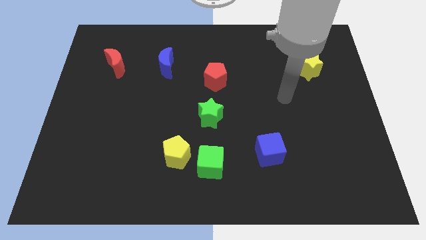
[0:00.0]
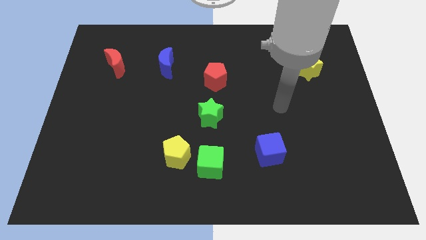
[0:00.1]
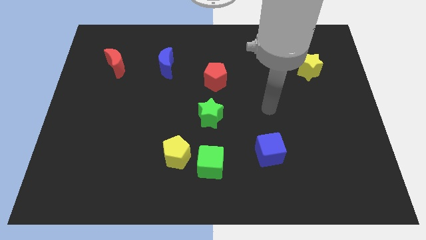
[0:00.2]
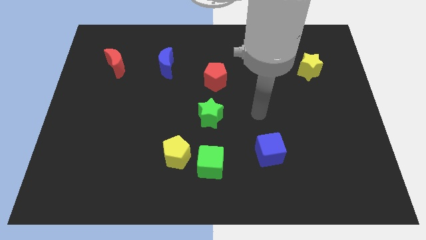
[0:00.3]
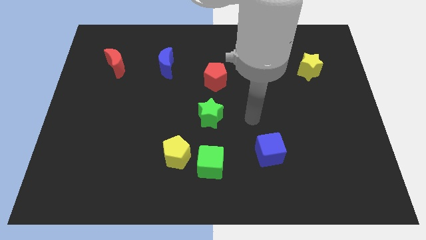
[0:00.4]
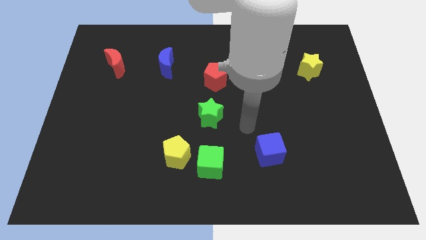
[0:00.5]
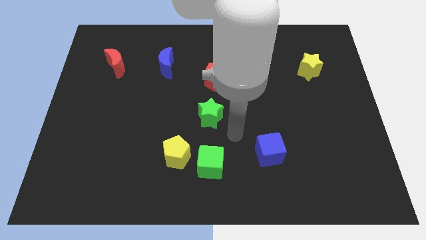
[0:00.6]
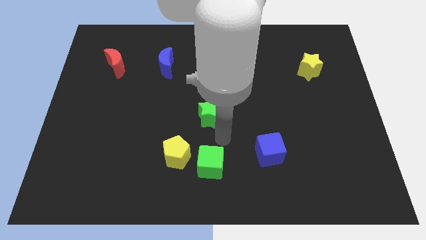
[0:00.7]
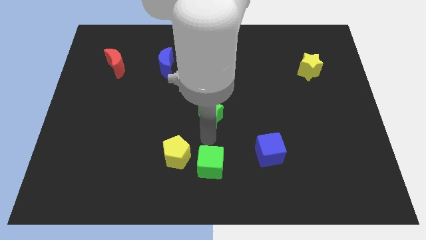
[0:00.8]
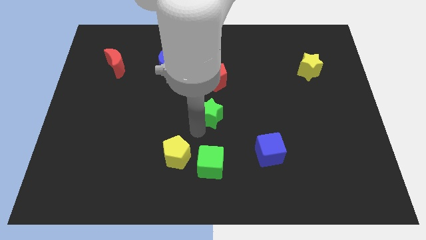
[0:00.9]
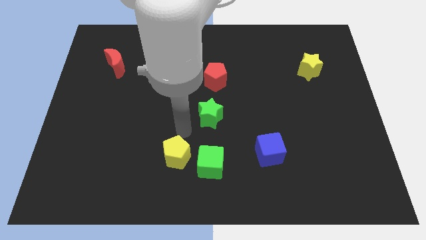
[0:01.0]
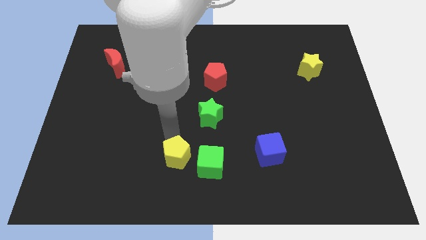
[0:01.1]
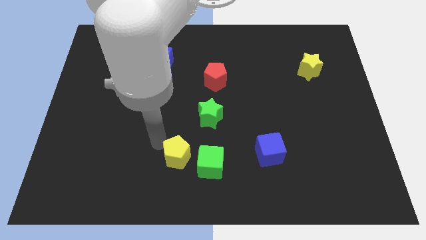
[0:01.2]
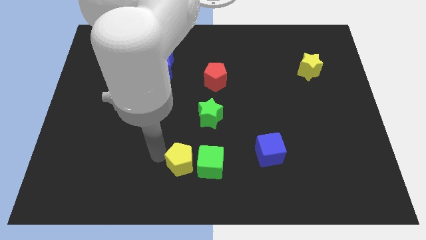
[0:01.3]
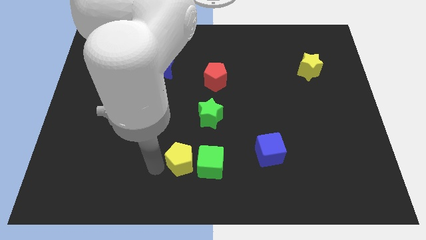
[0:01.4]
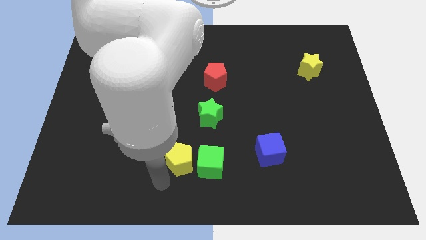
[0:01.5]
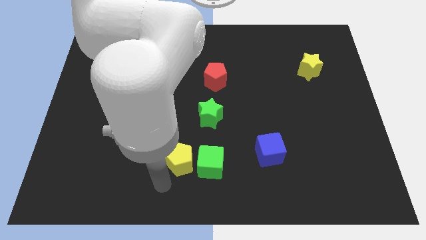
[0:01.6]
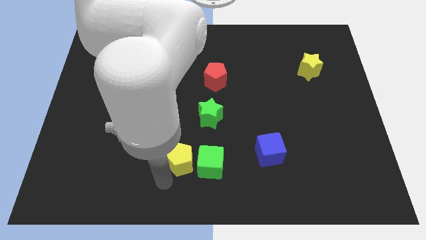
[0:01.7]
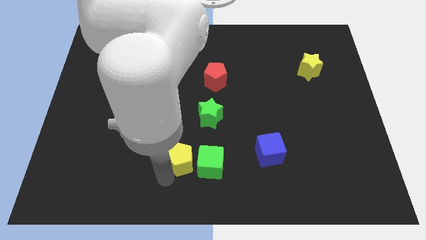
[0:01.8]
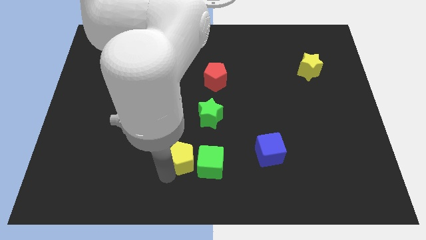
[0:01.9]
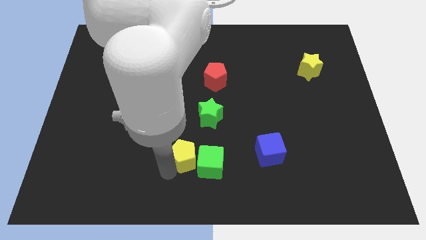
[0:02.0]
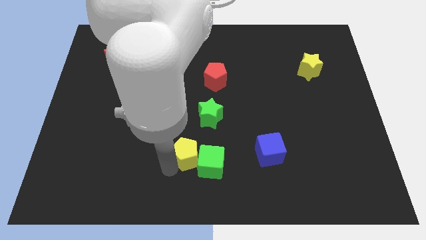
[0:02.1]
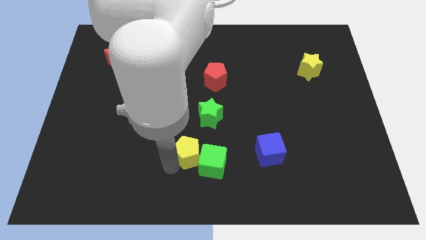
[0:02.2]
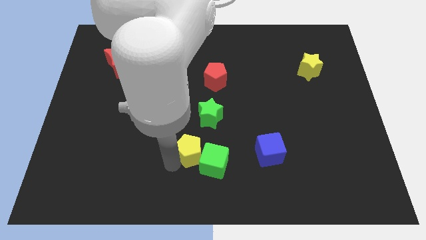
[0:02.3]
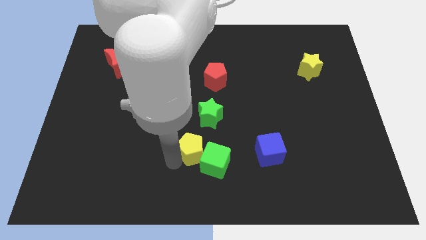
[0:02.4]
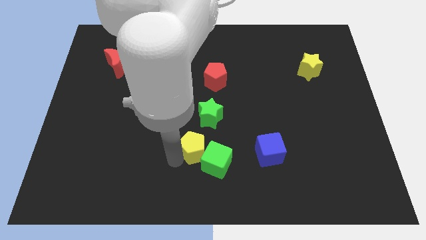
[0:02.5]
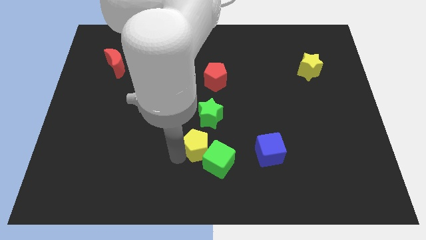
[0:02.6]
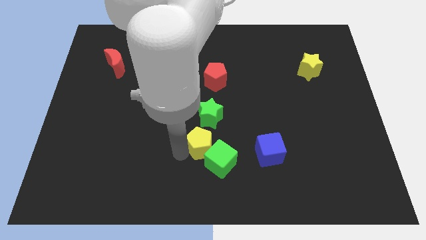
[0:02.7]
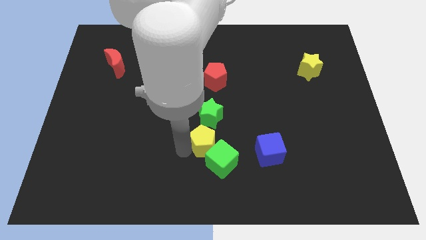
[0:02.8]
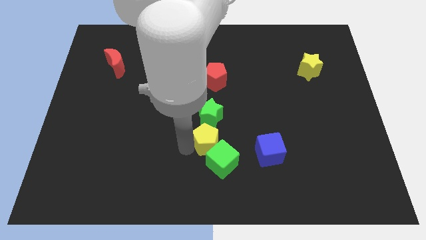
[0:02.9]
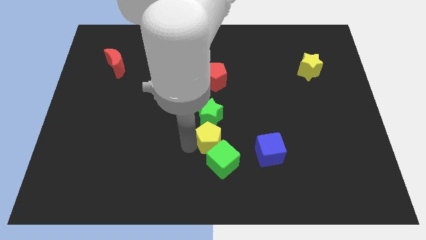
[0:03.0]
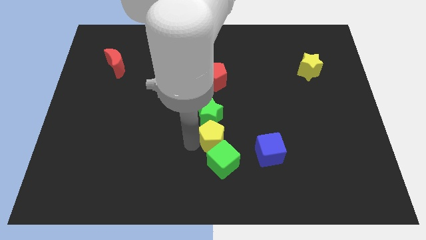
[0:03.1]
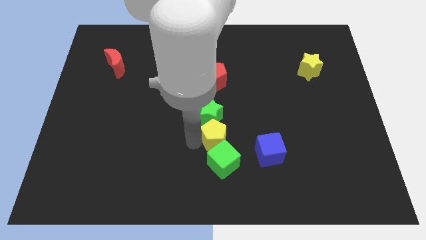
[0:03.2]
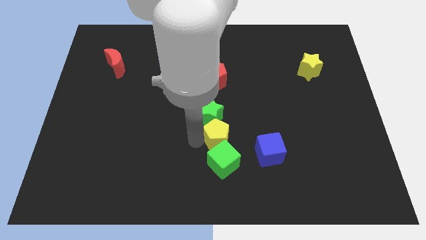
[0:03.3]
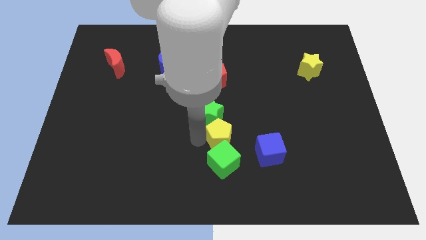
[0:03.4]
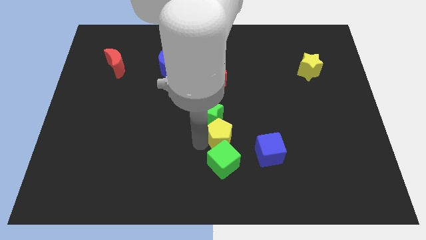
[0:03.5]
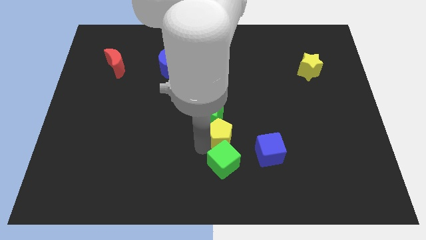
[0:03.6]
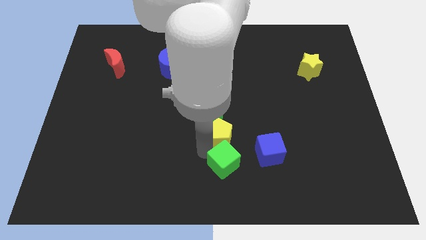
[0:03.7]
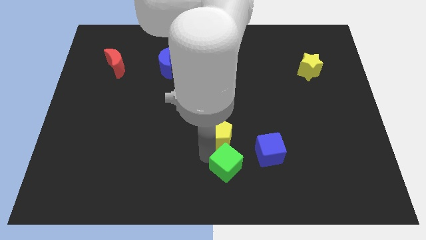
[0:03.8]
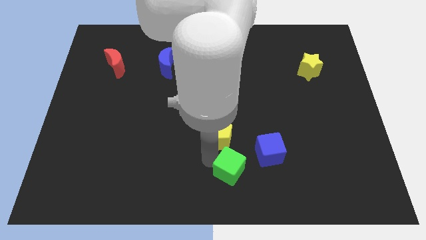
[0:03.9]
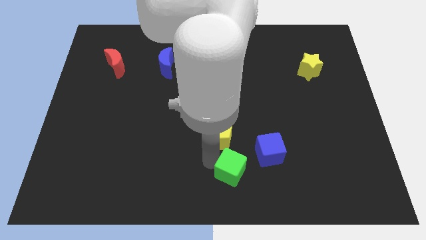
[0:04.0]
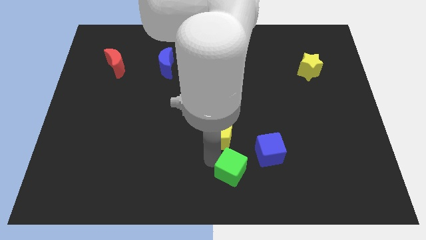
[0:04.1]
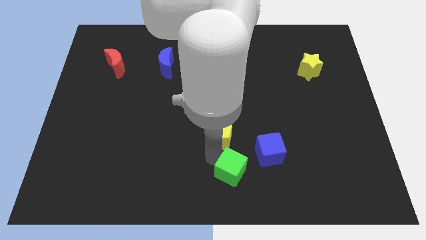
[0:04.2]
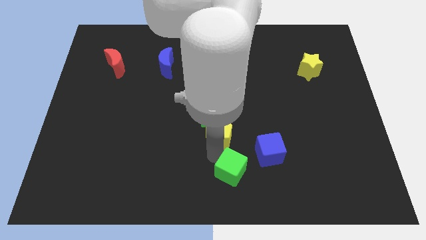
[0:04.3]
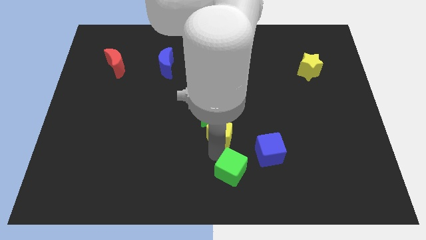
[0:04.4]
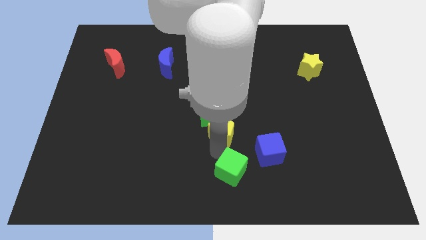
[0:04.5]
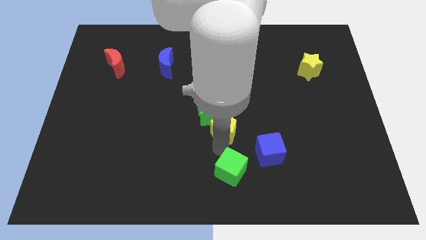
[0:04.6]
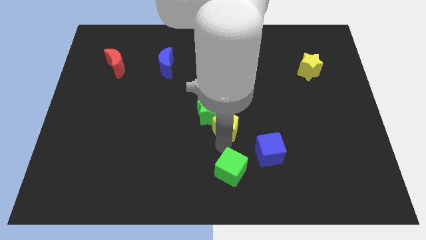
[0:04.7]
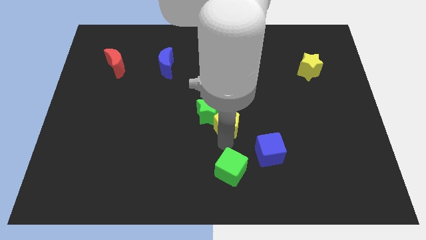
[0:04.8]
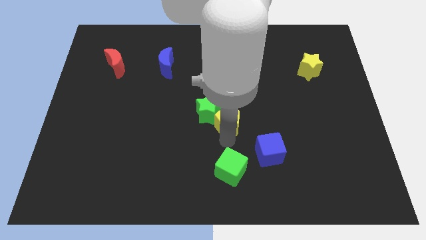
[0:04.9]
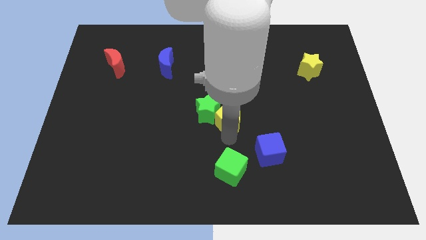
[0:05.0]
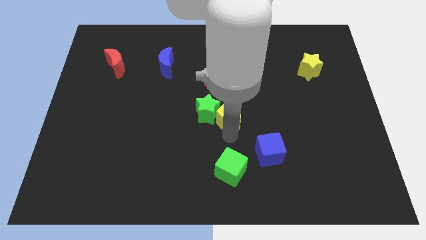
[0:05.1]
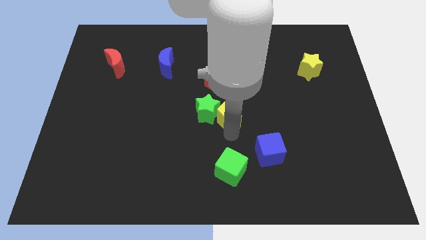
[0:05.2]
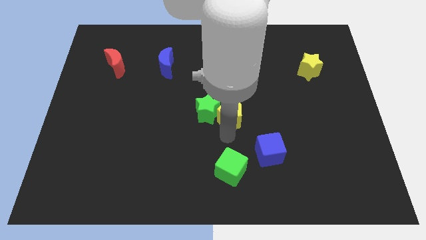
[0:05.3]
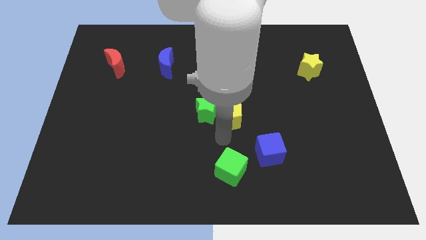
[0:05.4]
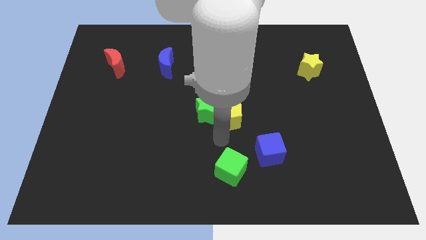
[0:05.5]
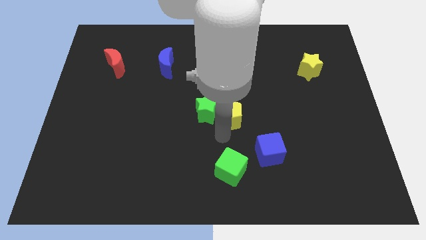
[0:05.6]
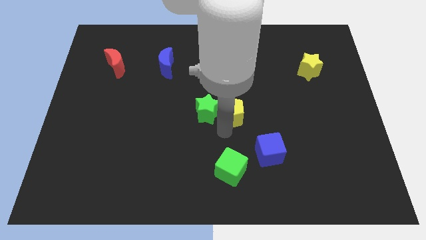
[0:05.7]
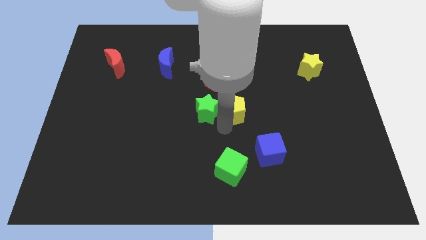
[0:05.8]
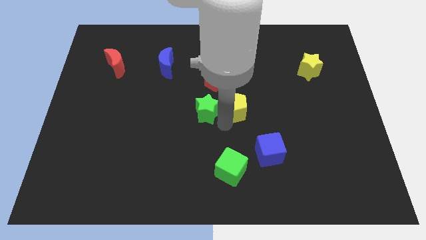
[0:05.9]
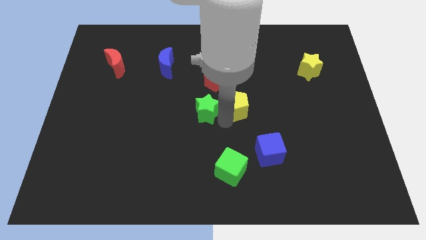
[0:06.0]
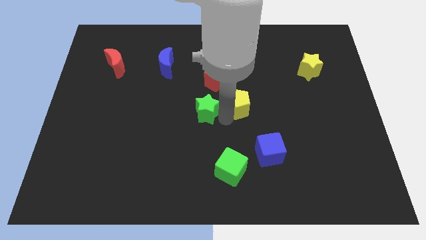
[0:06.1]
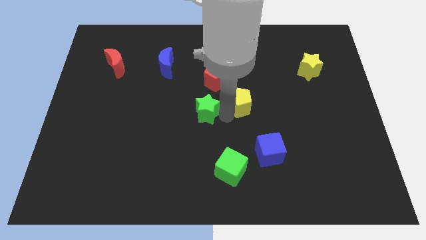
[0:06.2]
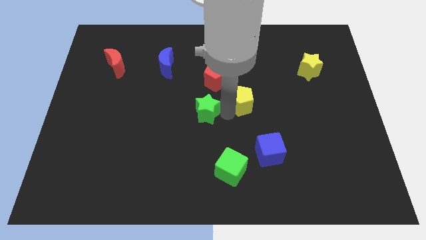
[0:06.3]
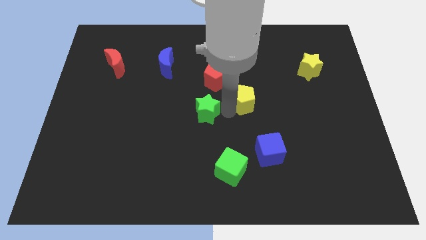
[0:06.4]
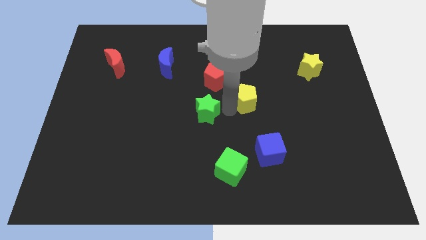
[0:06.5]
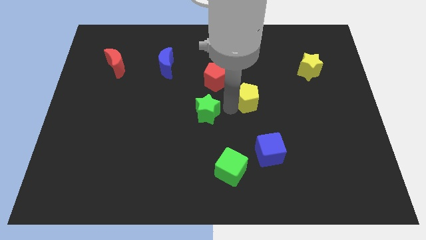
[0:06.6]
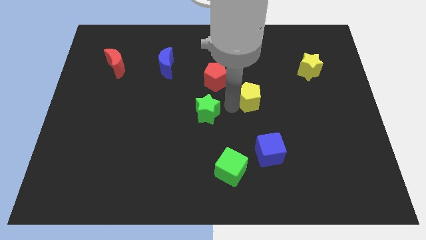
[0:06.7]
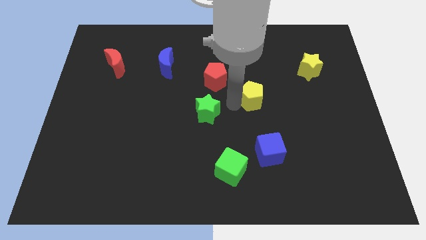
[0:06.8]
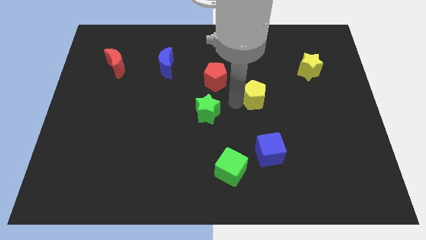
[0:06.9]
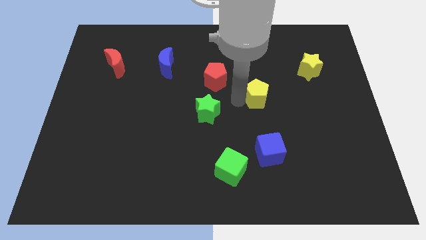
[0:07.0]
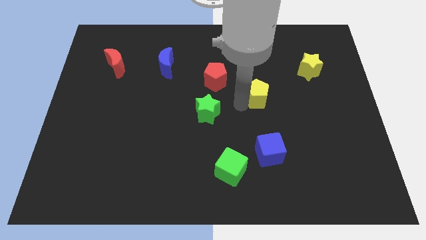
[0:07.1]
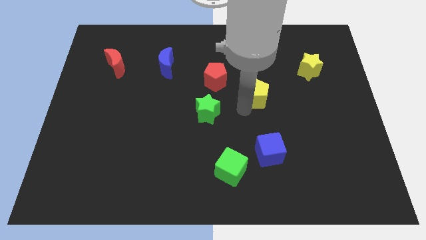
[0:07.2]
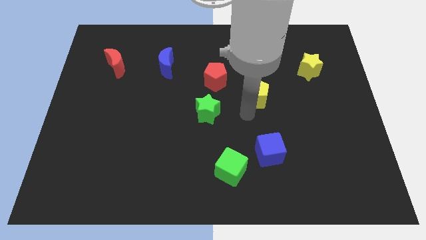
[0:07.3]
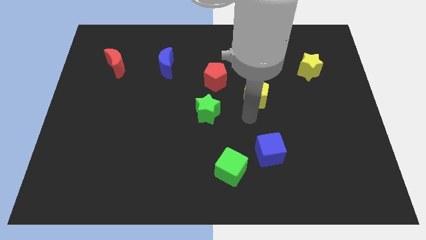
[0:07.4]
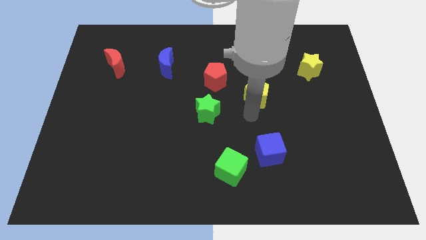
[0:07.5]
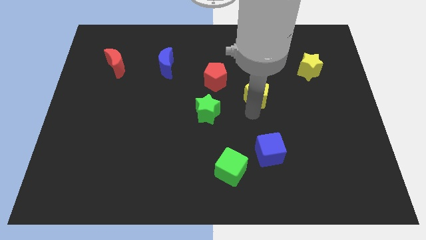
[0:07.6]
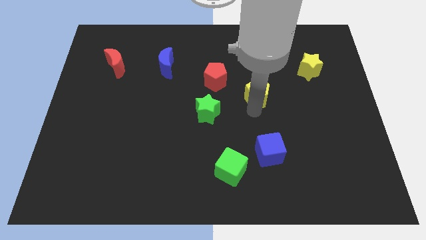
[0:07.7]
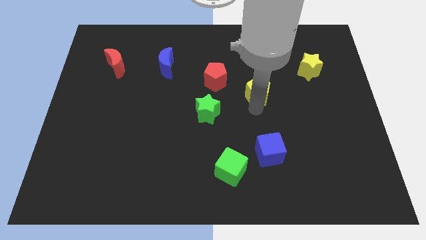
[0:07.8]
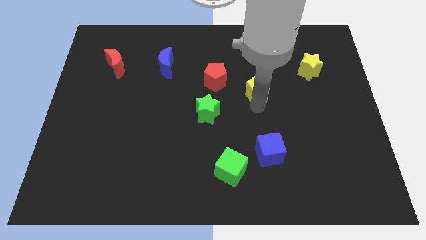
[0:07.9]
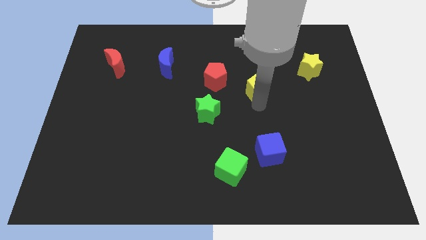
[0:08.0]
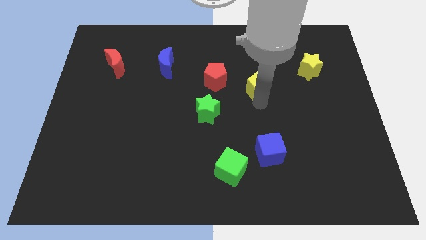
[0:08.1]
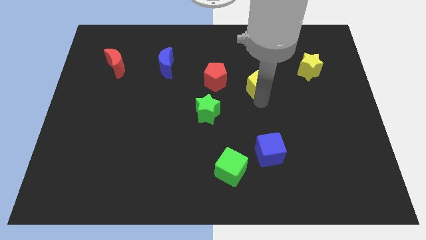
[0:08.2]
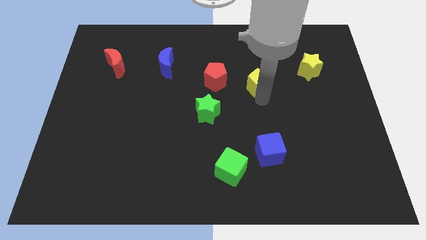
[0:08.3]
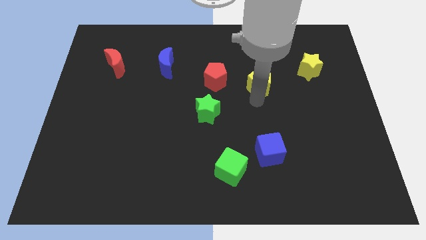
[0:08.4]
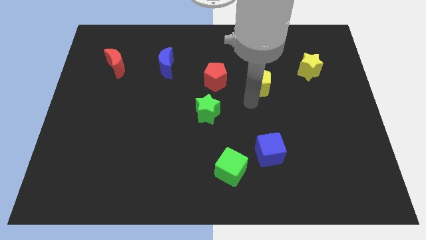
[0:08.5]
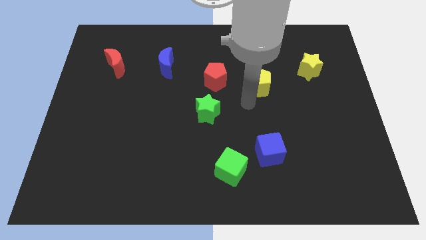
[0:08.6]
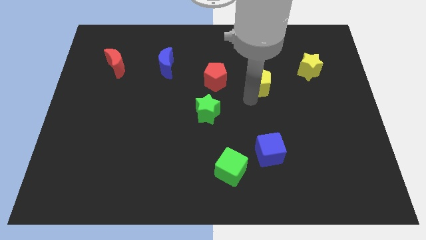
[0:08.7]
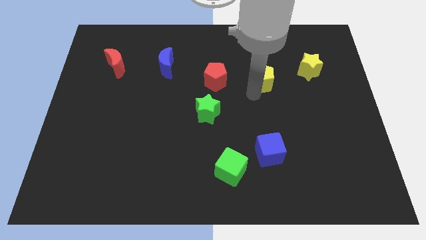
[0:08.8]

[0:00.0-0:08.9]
put the yellow pentagon to the left of the yellow star
